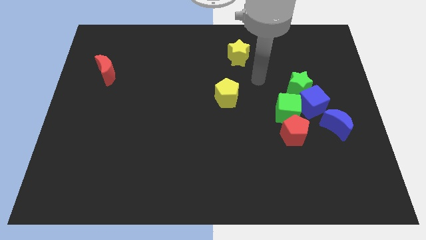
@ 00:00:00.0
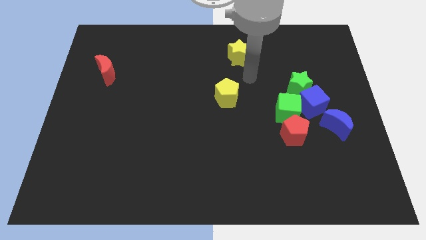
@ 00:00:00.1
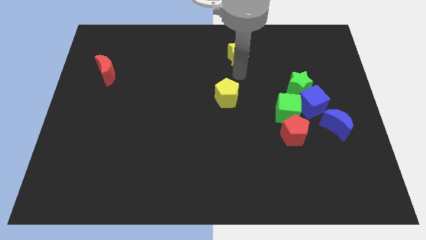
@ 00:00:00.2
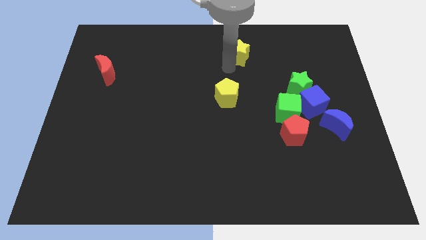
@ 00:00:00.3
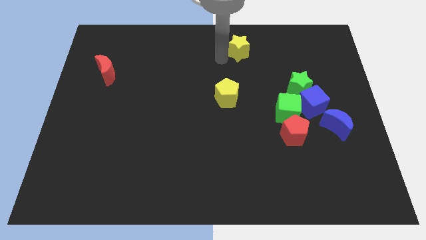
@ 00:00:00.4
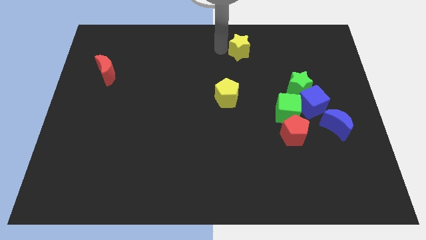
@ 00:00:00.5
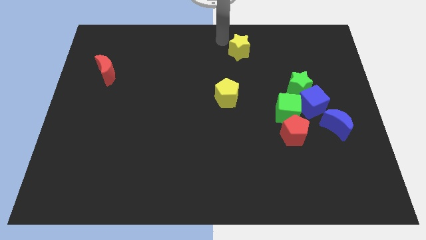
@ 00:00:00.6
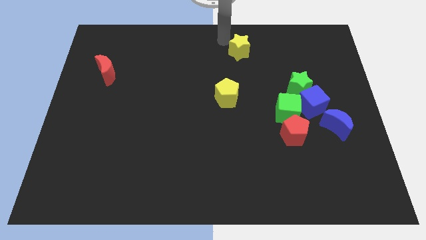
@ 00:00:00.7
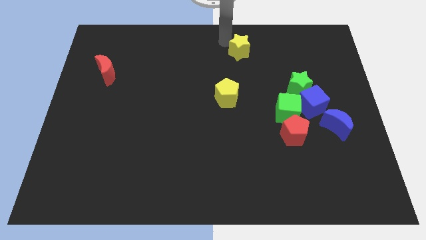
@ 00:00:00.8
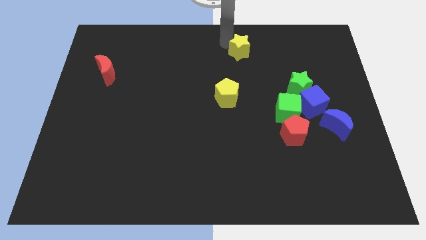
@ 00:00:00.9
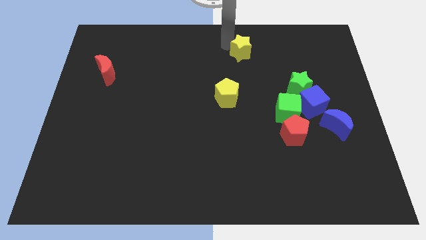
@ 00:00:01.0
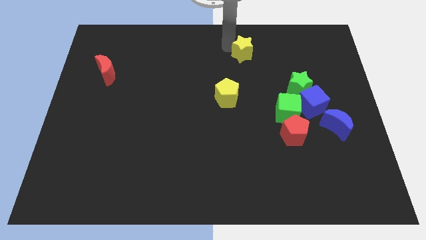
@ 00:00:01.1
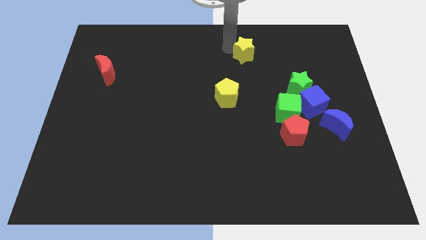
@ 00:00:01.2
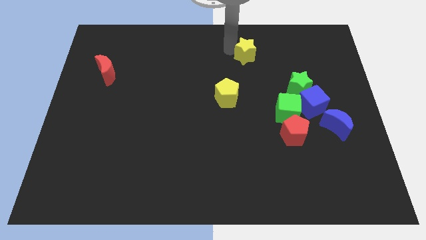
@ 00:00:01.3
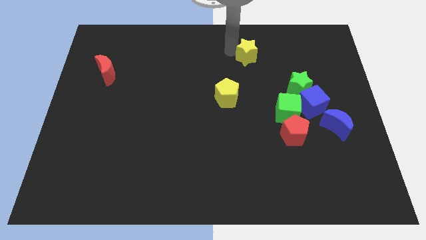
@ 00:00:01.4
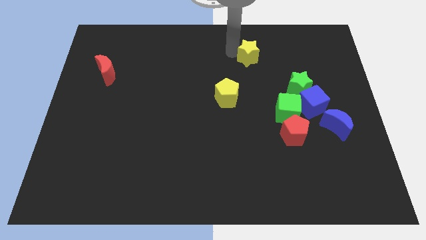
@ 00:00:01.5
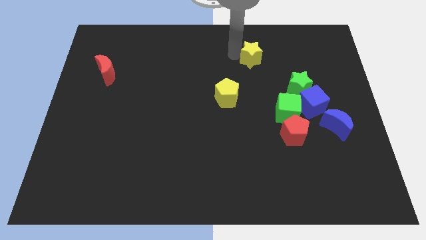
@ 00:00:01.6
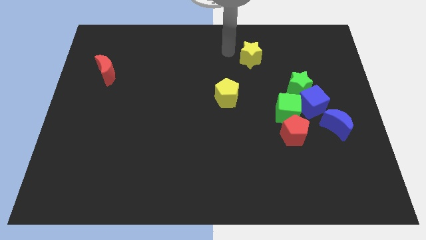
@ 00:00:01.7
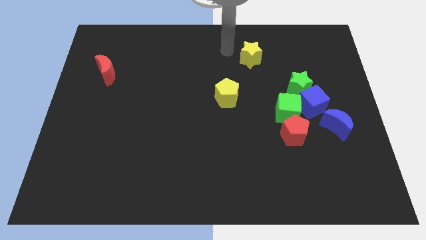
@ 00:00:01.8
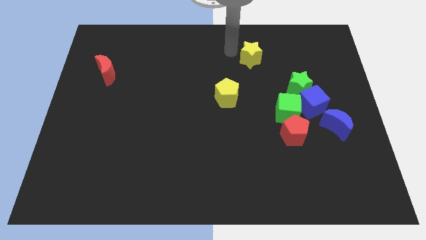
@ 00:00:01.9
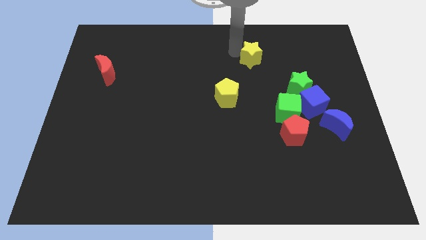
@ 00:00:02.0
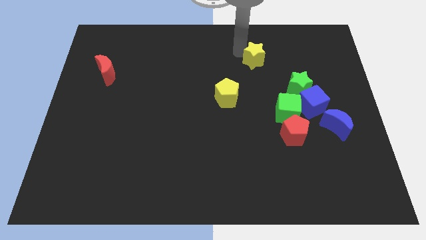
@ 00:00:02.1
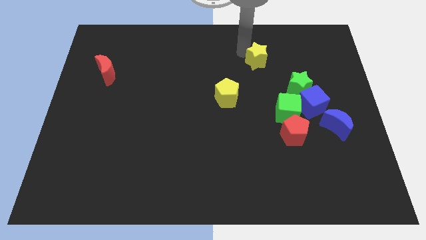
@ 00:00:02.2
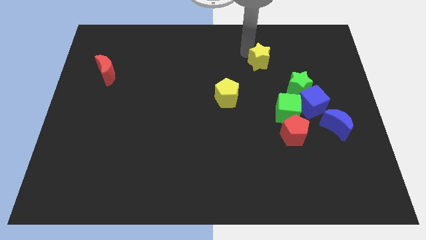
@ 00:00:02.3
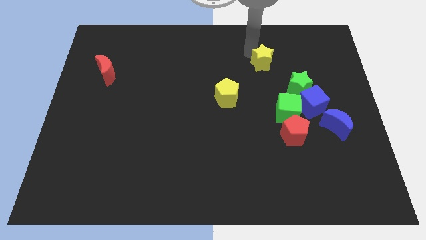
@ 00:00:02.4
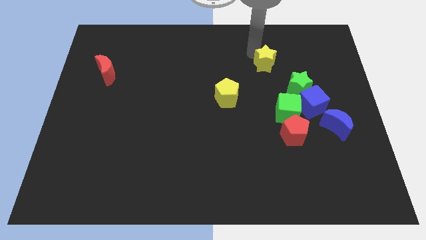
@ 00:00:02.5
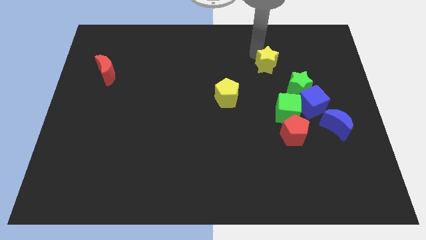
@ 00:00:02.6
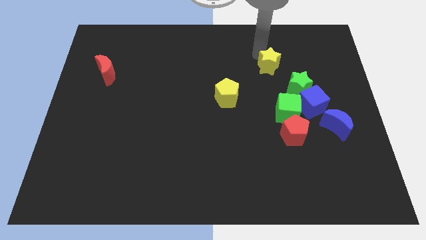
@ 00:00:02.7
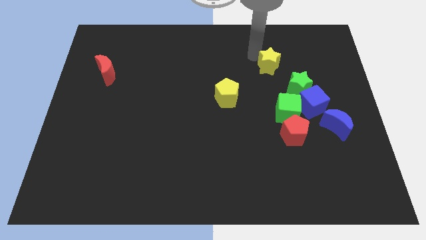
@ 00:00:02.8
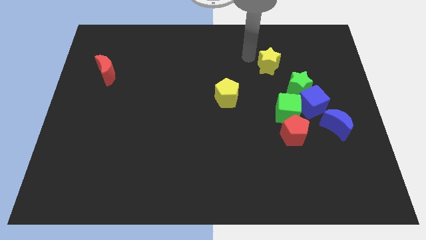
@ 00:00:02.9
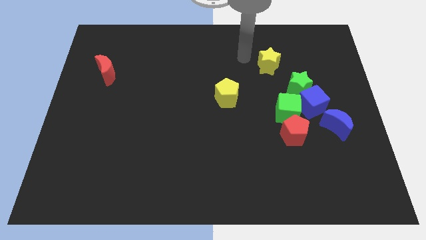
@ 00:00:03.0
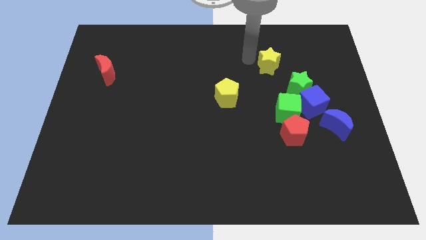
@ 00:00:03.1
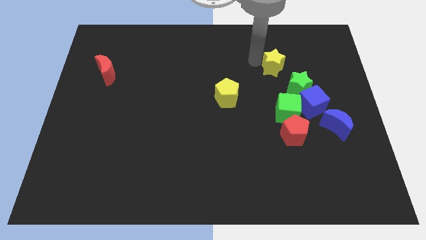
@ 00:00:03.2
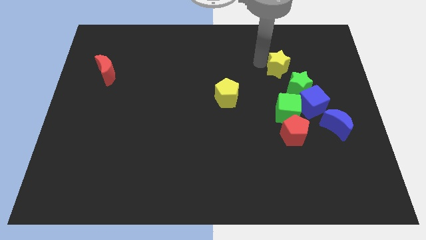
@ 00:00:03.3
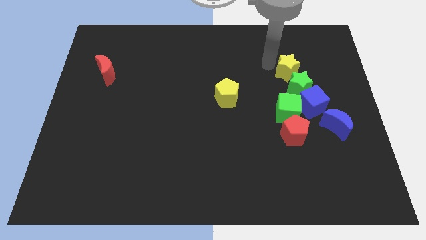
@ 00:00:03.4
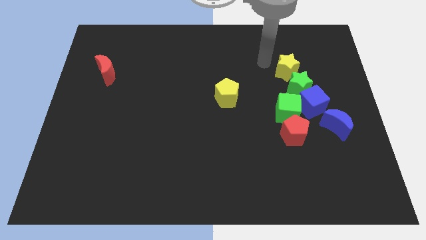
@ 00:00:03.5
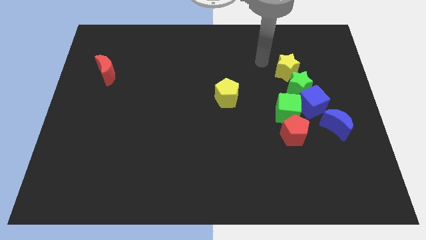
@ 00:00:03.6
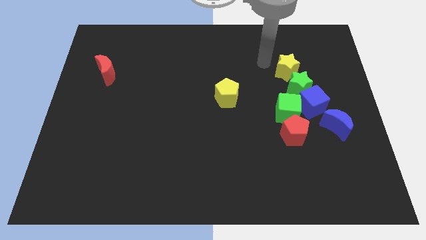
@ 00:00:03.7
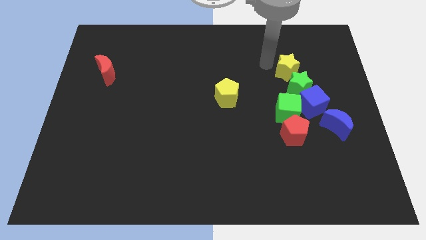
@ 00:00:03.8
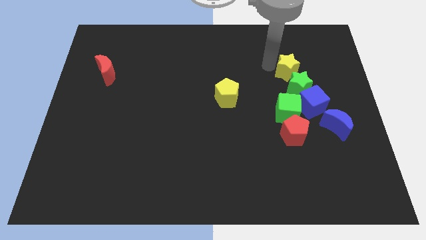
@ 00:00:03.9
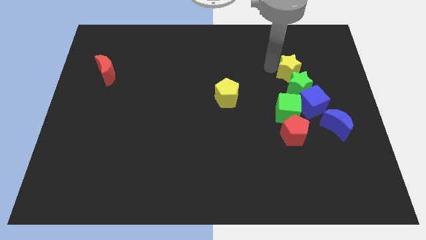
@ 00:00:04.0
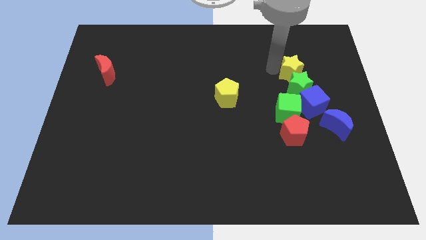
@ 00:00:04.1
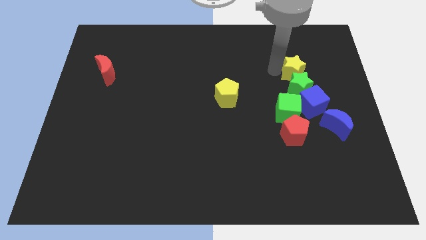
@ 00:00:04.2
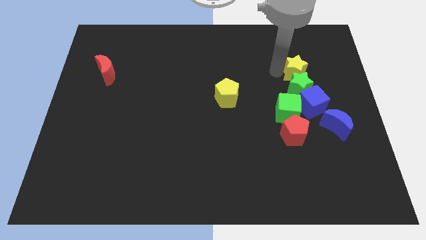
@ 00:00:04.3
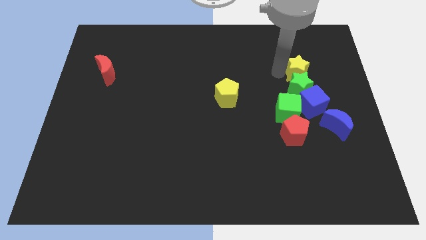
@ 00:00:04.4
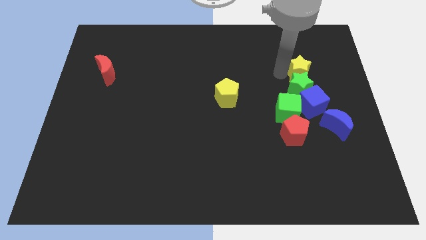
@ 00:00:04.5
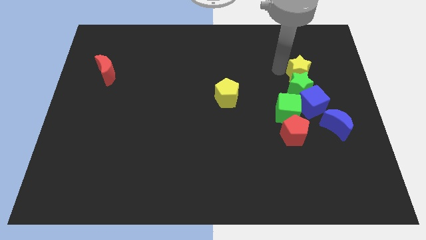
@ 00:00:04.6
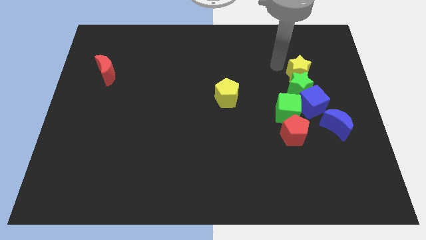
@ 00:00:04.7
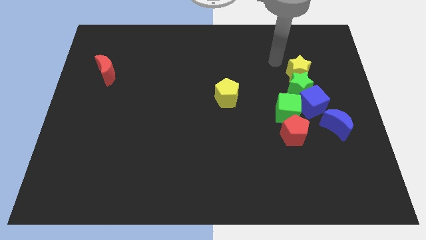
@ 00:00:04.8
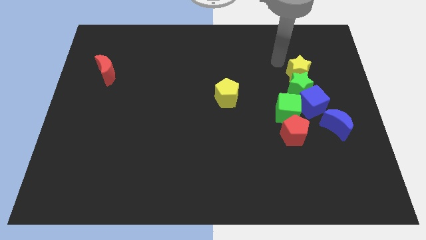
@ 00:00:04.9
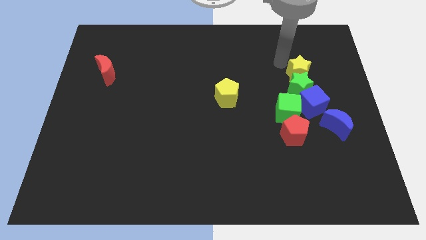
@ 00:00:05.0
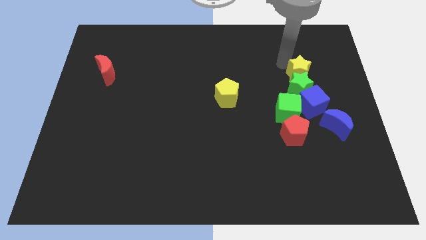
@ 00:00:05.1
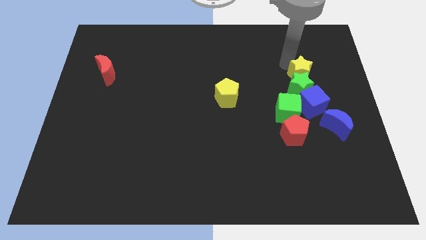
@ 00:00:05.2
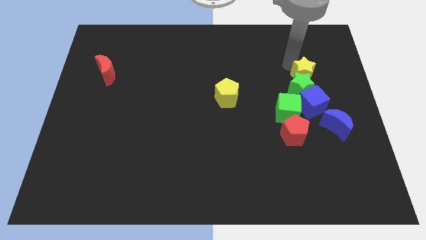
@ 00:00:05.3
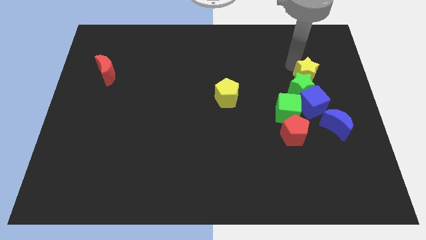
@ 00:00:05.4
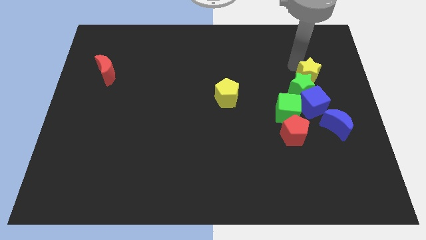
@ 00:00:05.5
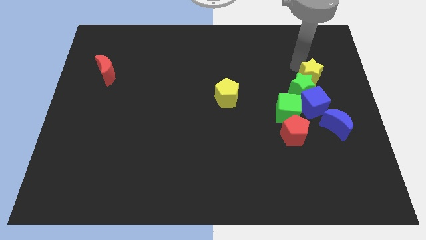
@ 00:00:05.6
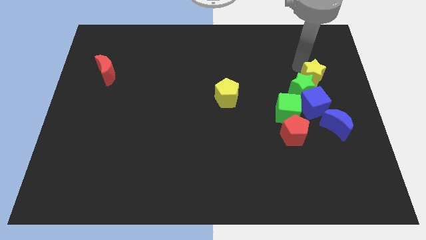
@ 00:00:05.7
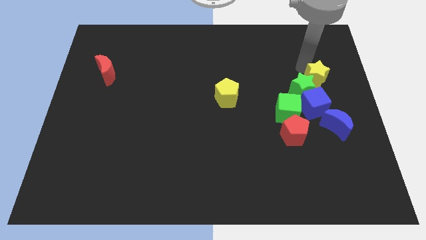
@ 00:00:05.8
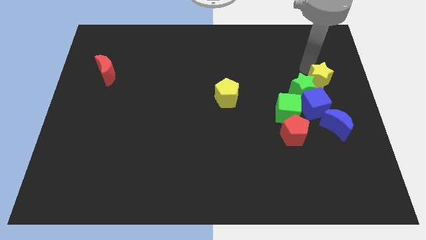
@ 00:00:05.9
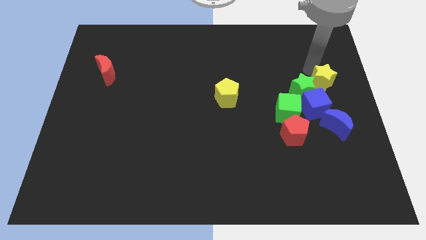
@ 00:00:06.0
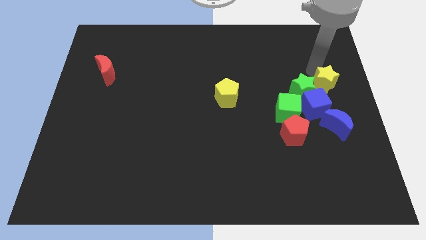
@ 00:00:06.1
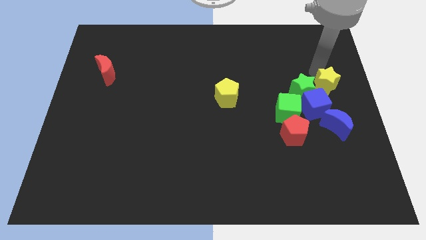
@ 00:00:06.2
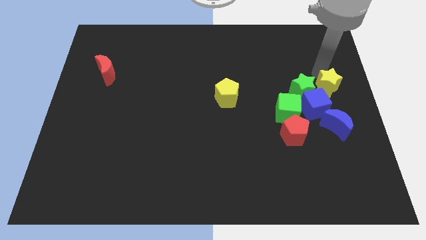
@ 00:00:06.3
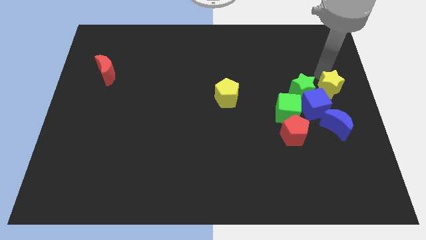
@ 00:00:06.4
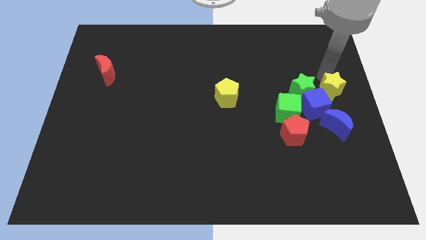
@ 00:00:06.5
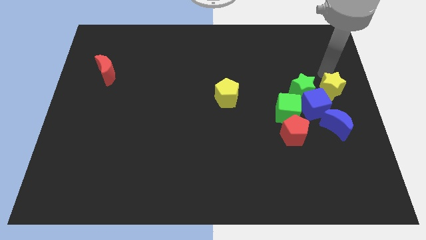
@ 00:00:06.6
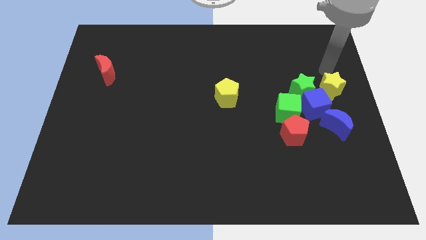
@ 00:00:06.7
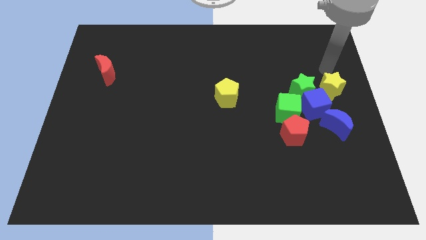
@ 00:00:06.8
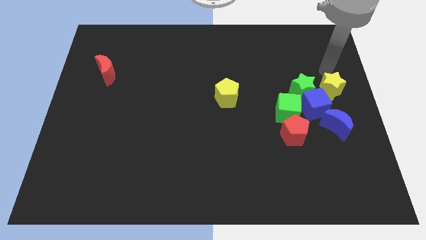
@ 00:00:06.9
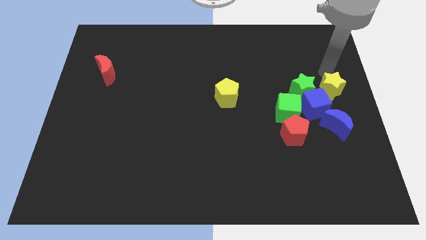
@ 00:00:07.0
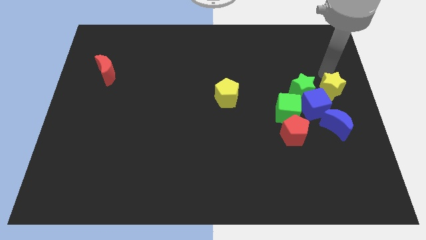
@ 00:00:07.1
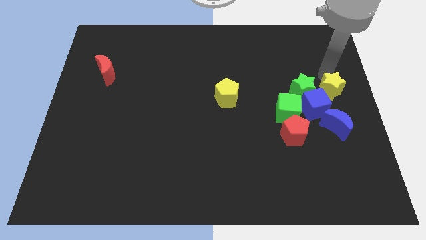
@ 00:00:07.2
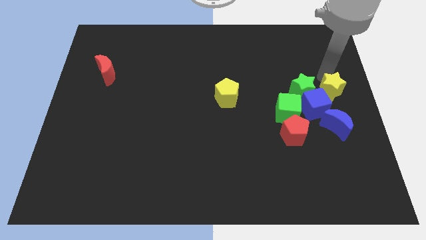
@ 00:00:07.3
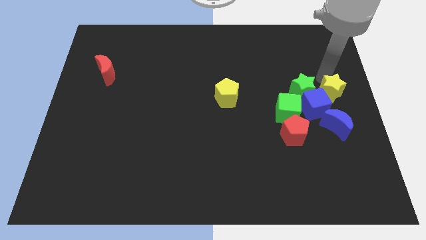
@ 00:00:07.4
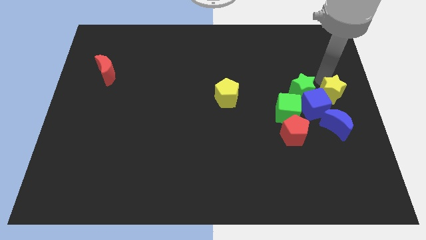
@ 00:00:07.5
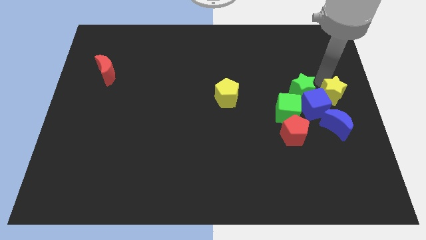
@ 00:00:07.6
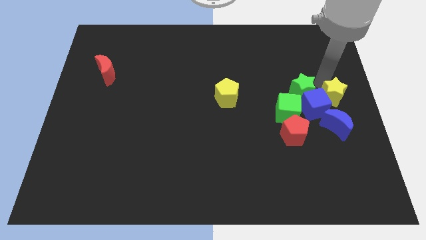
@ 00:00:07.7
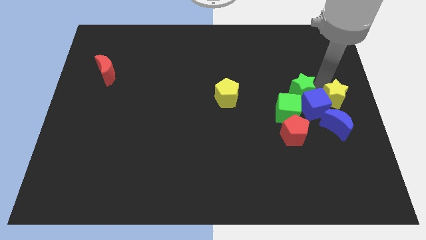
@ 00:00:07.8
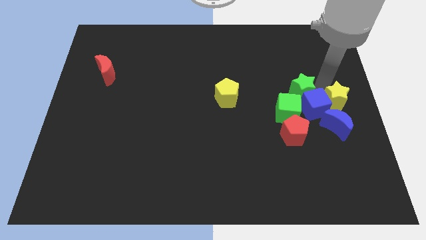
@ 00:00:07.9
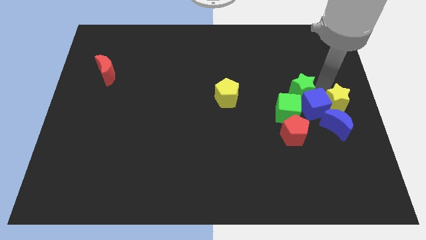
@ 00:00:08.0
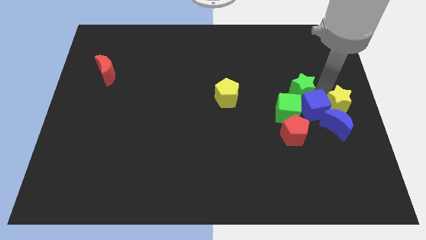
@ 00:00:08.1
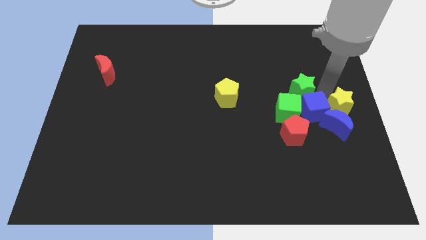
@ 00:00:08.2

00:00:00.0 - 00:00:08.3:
slide the yellow star close to the blue moon
